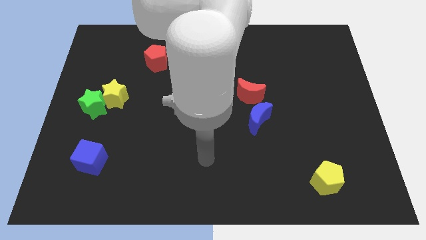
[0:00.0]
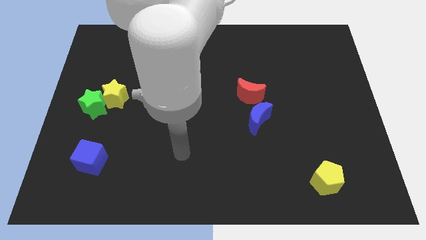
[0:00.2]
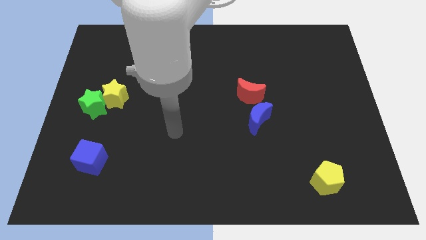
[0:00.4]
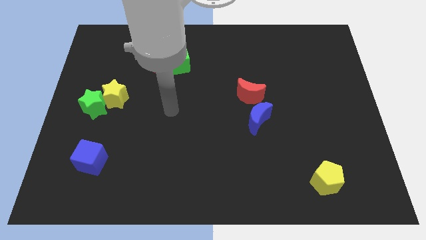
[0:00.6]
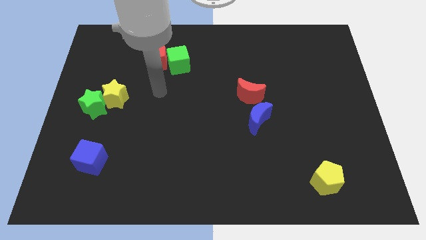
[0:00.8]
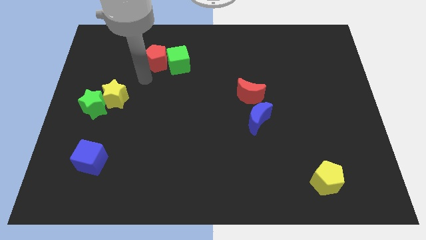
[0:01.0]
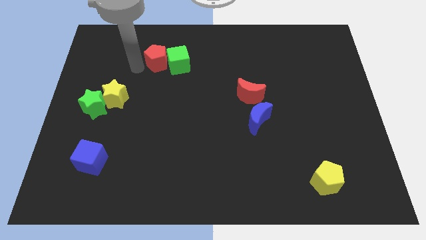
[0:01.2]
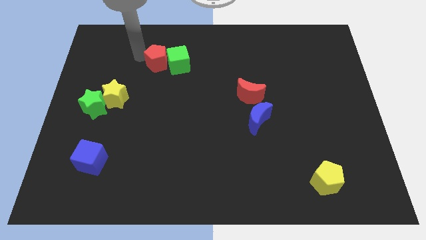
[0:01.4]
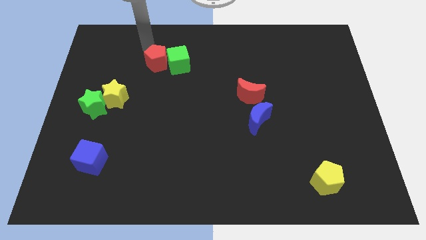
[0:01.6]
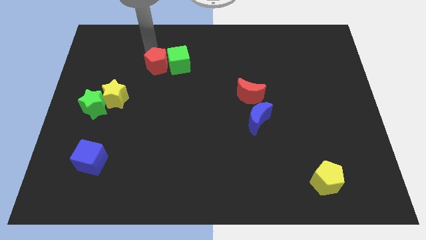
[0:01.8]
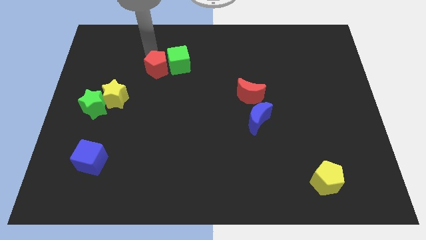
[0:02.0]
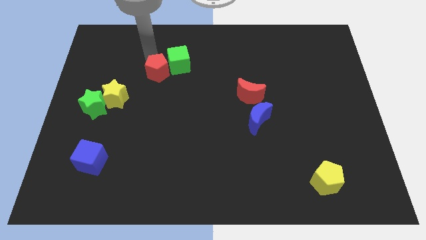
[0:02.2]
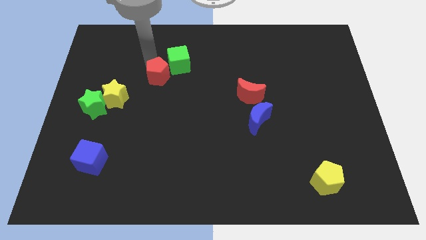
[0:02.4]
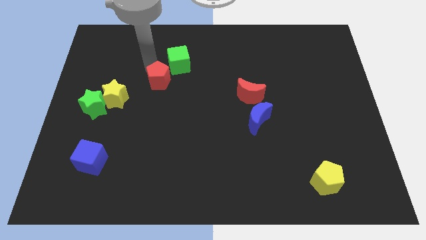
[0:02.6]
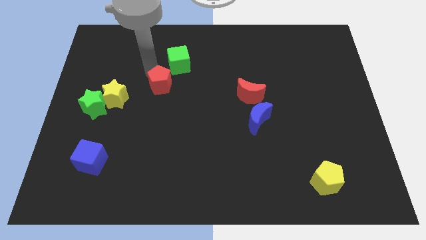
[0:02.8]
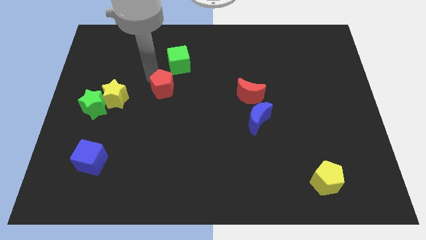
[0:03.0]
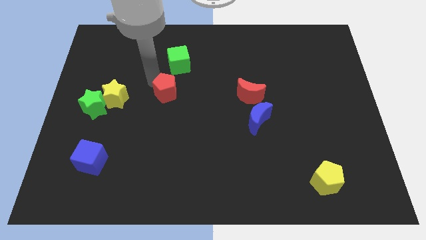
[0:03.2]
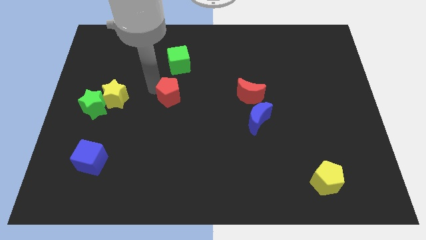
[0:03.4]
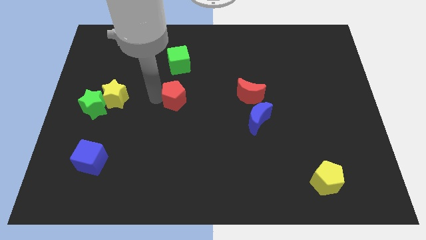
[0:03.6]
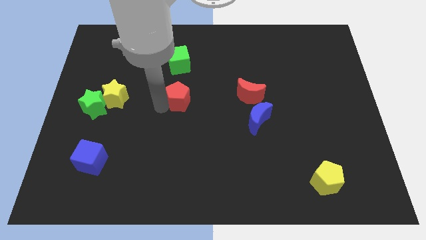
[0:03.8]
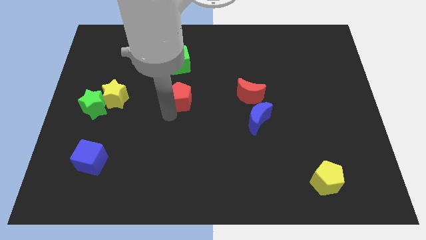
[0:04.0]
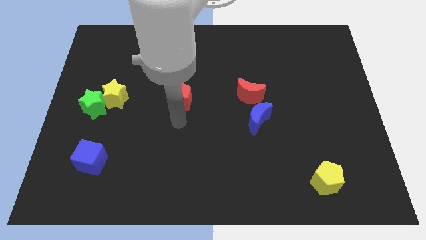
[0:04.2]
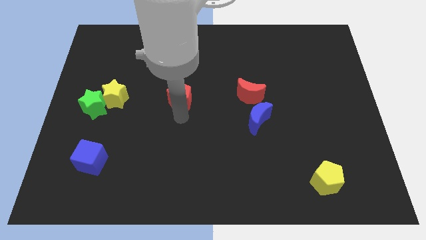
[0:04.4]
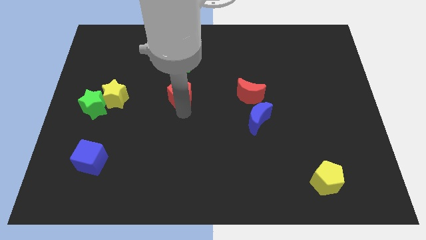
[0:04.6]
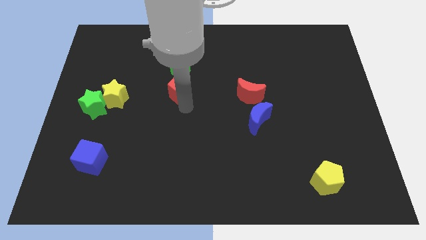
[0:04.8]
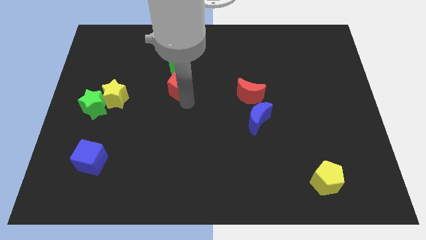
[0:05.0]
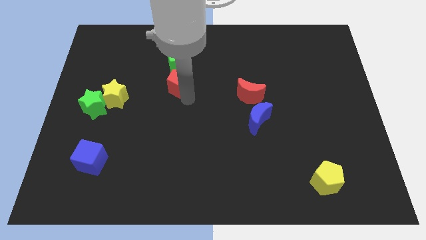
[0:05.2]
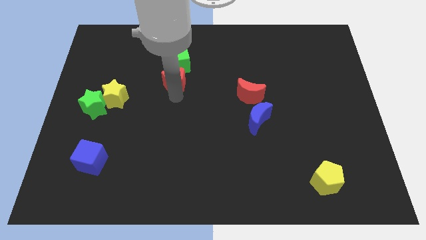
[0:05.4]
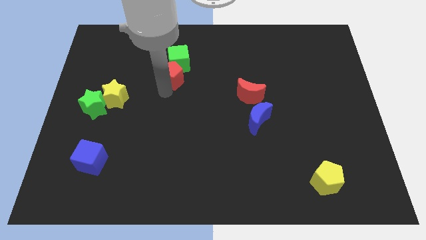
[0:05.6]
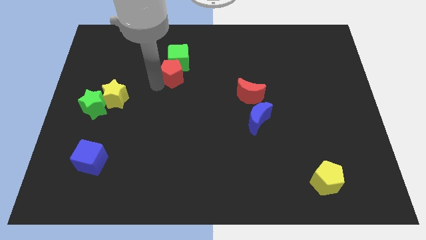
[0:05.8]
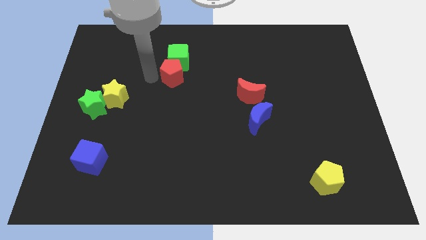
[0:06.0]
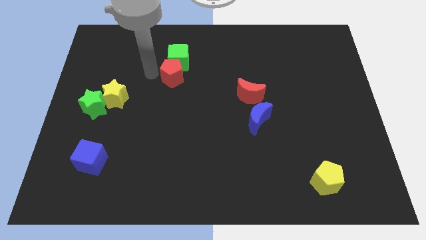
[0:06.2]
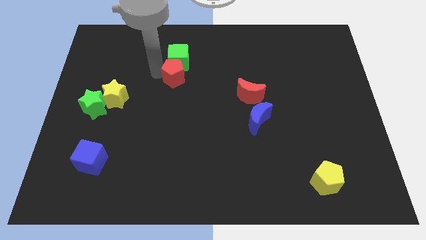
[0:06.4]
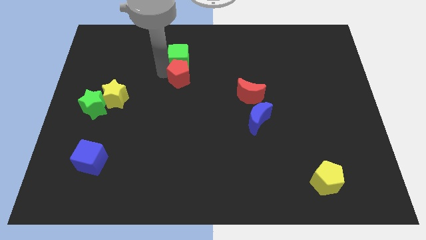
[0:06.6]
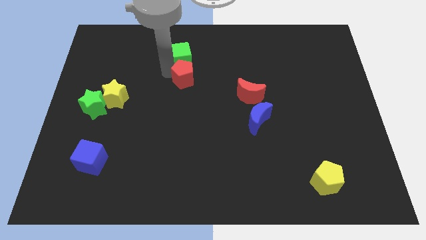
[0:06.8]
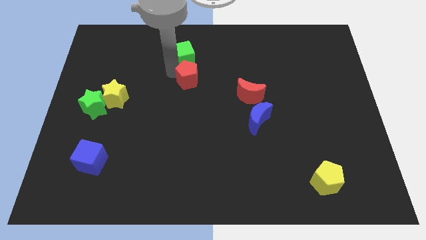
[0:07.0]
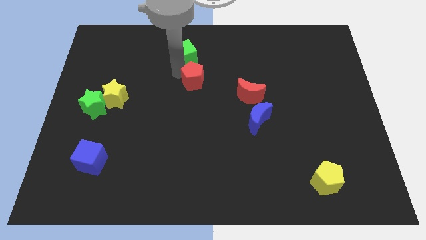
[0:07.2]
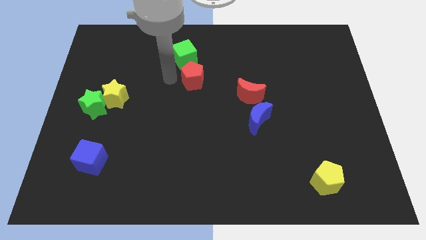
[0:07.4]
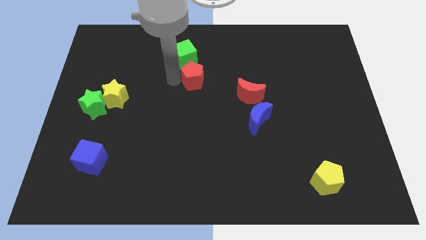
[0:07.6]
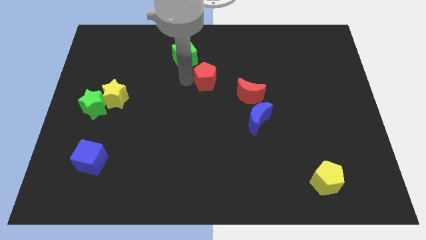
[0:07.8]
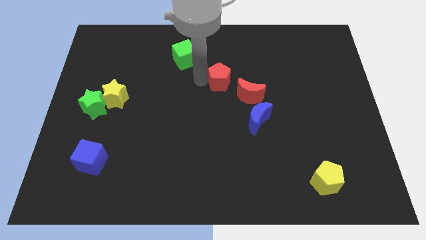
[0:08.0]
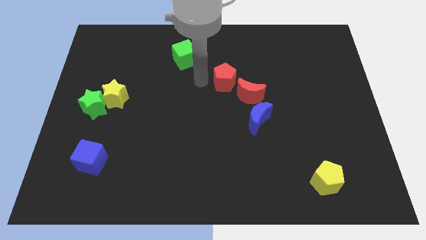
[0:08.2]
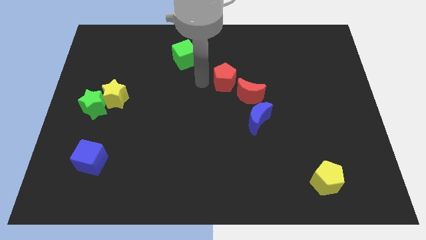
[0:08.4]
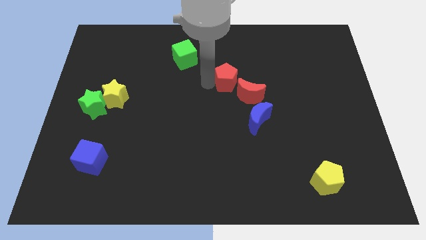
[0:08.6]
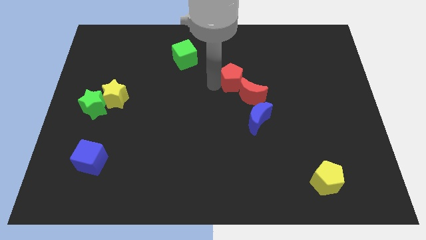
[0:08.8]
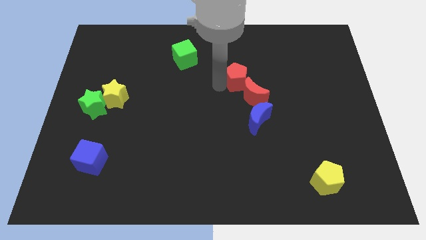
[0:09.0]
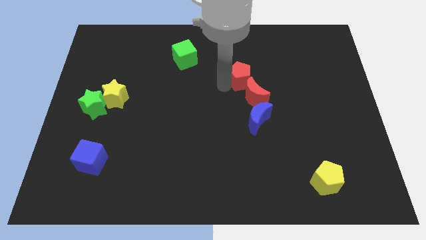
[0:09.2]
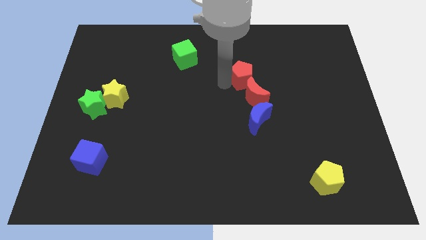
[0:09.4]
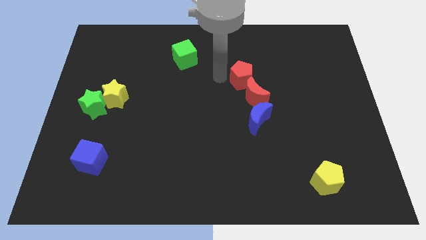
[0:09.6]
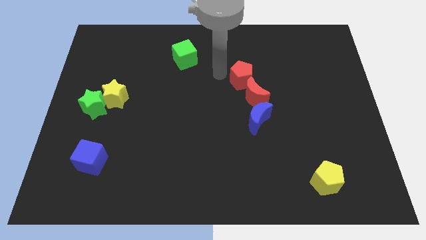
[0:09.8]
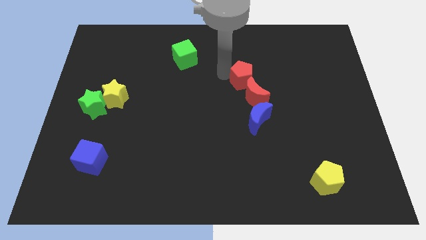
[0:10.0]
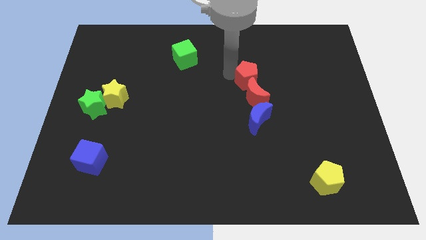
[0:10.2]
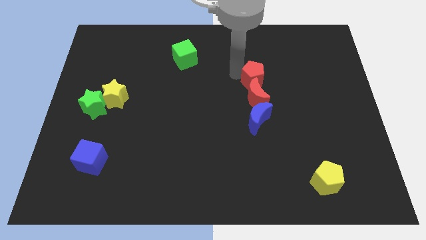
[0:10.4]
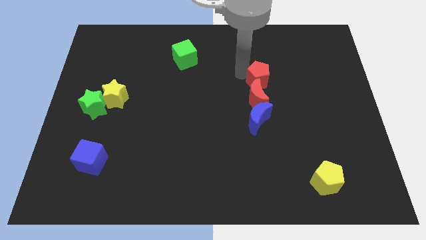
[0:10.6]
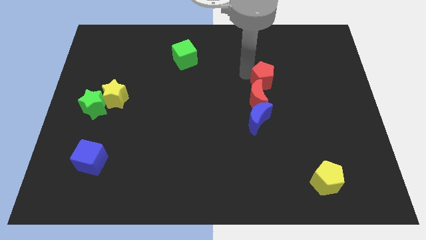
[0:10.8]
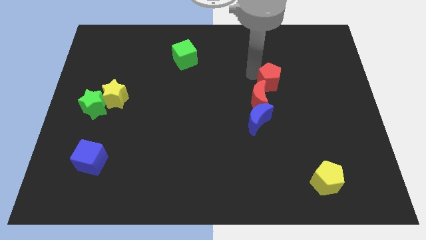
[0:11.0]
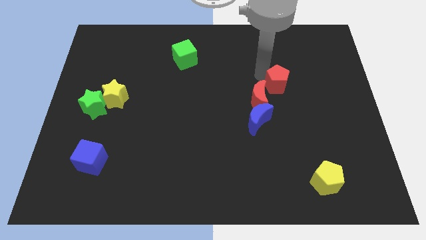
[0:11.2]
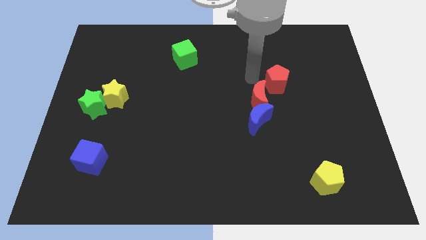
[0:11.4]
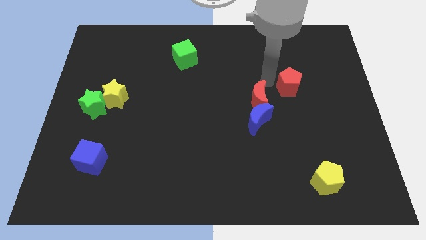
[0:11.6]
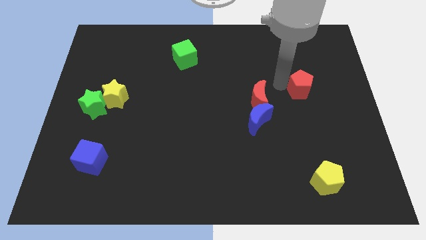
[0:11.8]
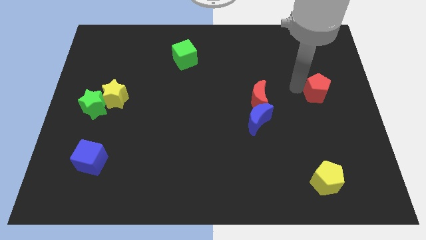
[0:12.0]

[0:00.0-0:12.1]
push the red pentagon to the right side of the board
